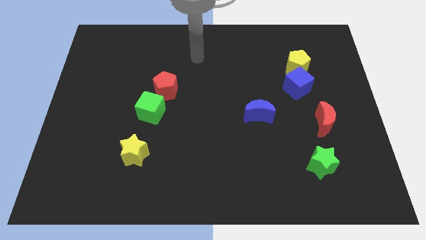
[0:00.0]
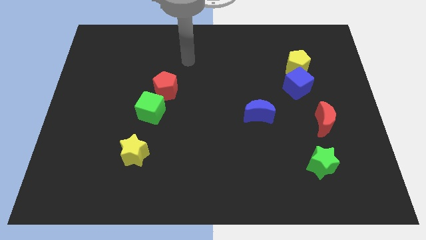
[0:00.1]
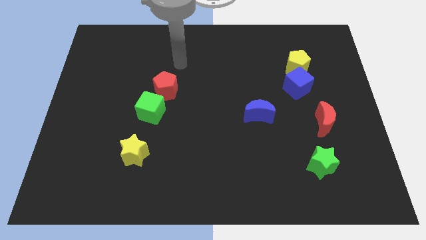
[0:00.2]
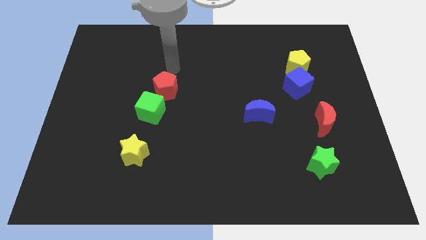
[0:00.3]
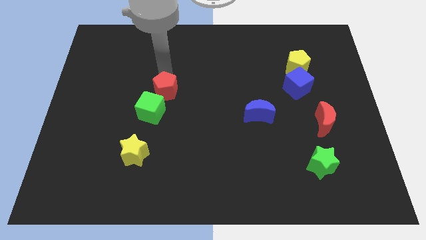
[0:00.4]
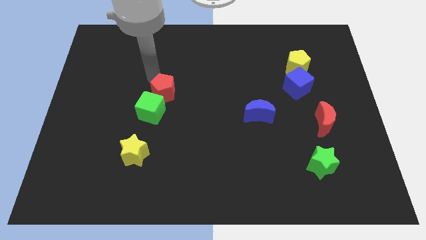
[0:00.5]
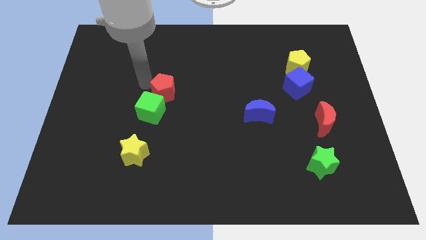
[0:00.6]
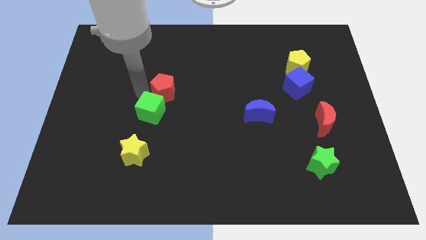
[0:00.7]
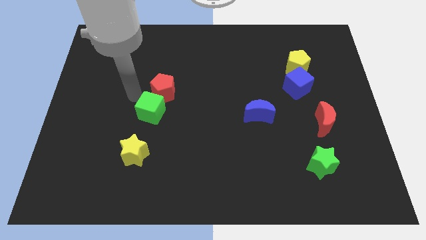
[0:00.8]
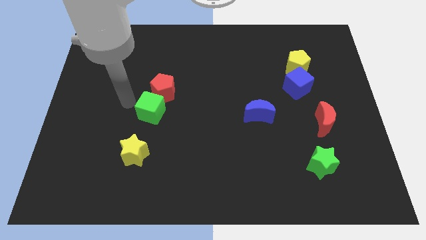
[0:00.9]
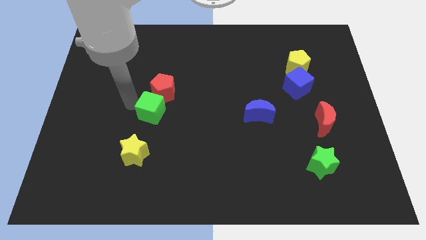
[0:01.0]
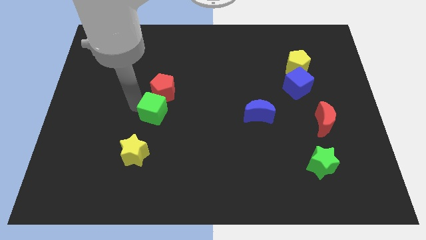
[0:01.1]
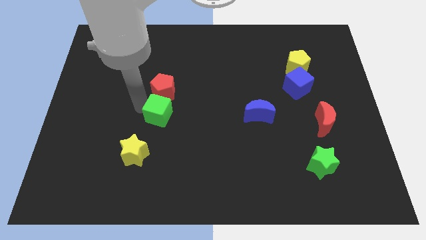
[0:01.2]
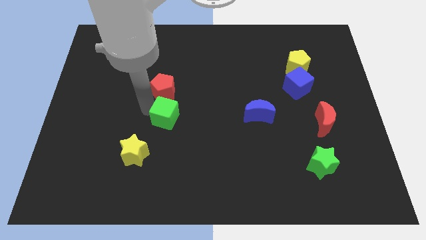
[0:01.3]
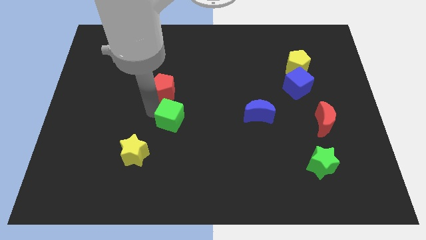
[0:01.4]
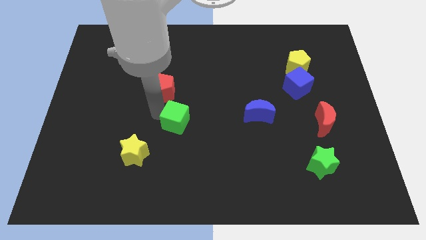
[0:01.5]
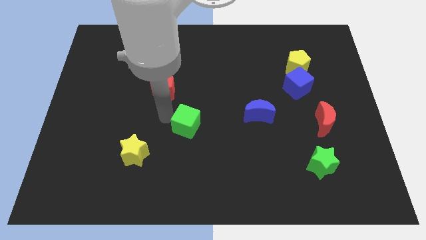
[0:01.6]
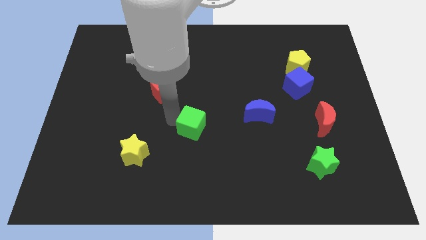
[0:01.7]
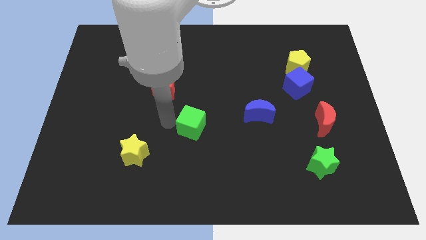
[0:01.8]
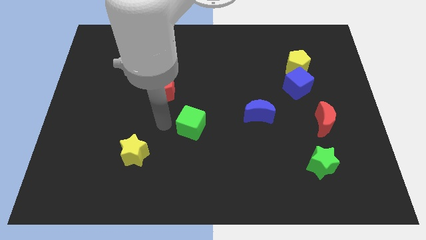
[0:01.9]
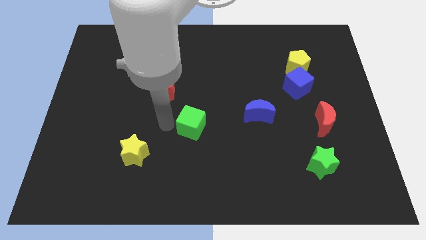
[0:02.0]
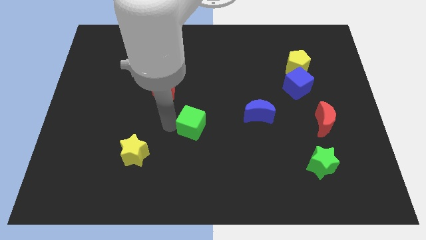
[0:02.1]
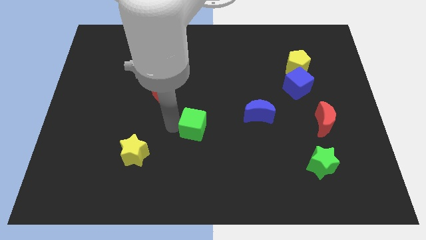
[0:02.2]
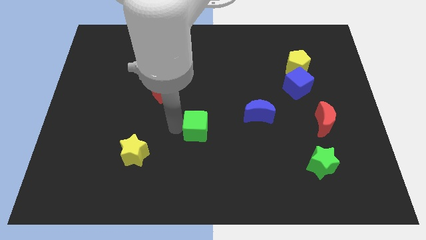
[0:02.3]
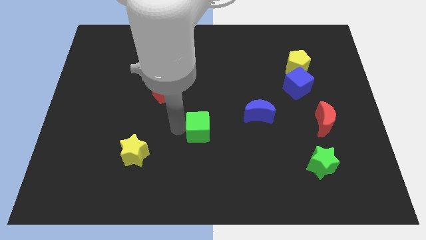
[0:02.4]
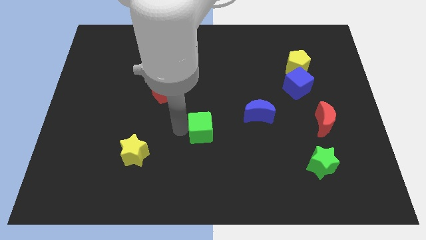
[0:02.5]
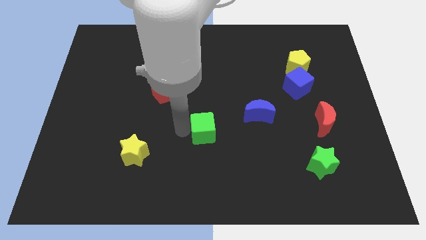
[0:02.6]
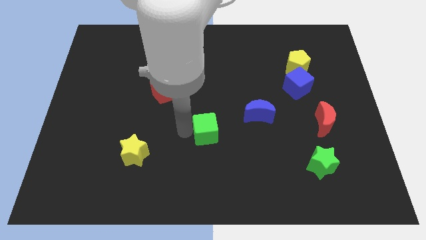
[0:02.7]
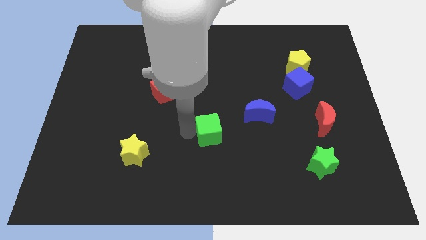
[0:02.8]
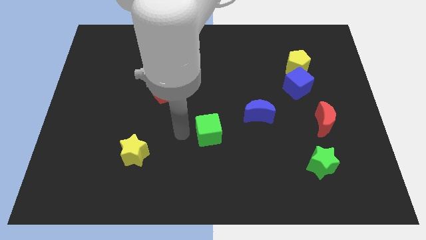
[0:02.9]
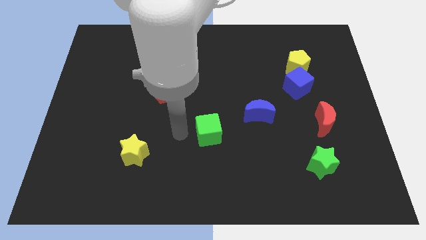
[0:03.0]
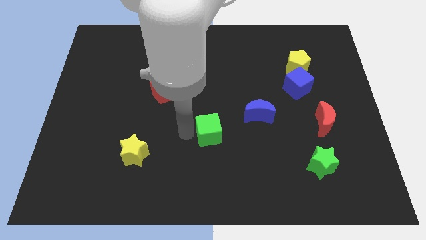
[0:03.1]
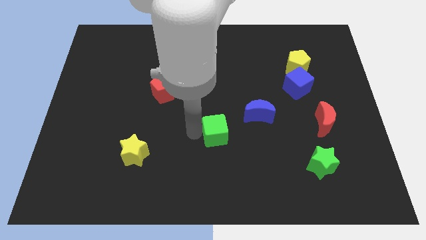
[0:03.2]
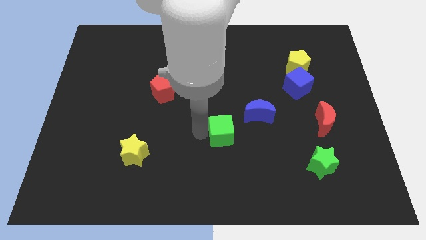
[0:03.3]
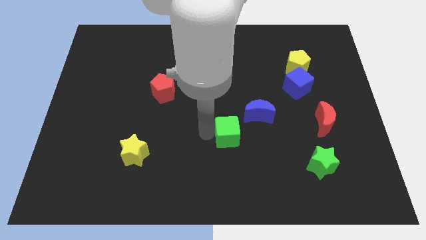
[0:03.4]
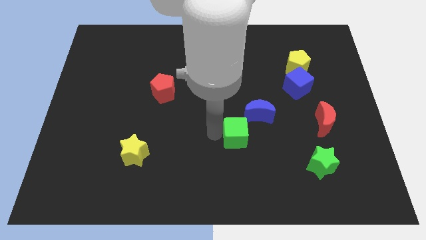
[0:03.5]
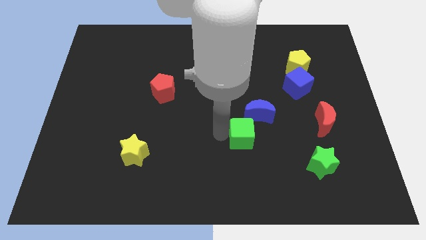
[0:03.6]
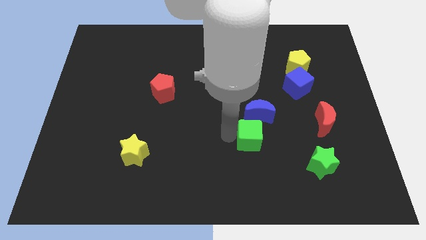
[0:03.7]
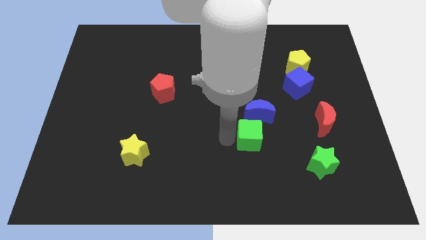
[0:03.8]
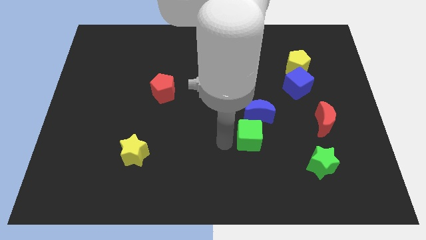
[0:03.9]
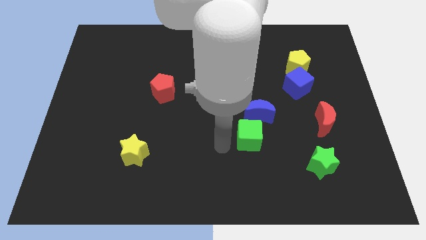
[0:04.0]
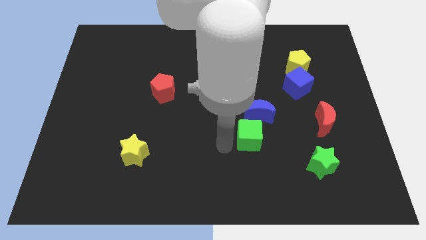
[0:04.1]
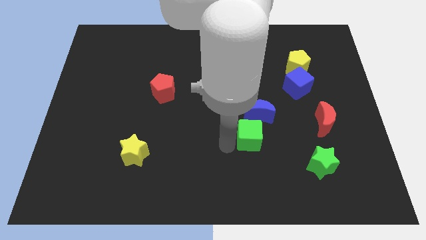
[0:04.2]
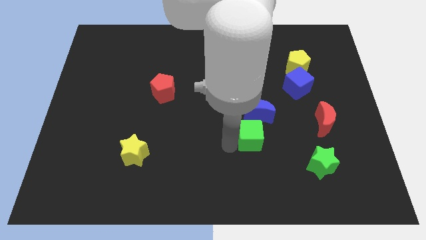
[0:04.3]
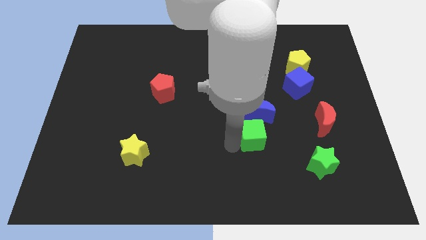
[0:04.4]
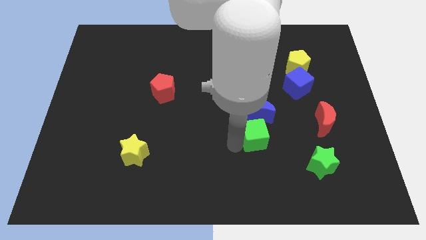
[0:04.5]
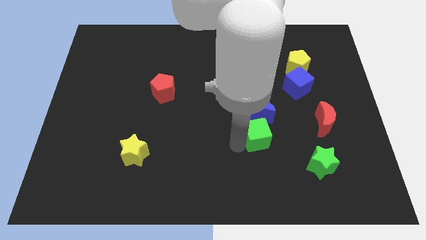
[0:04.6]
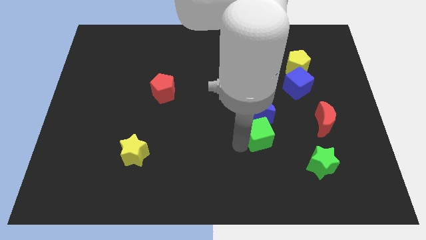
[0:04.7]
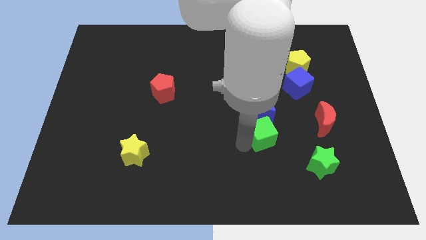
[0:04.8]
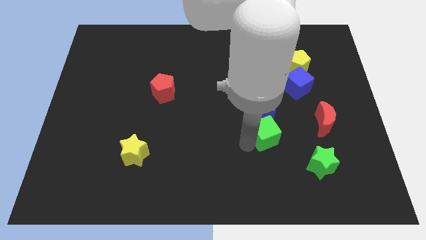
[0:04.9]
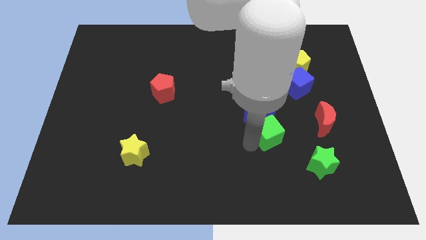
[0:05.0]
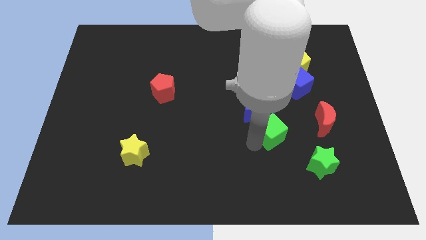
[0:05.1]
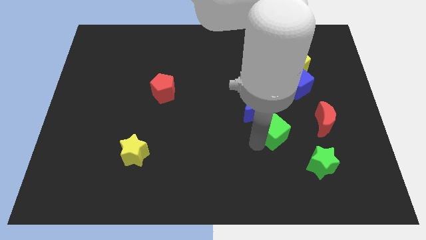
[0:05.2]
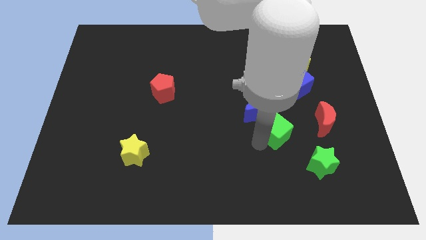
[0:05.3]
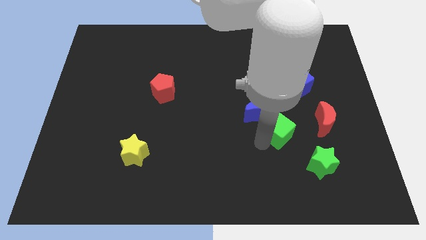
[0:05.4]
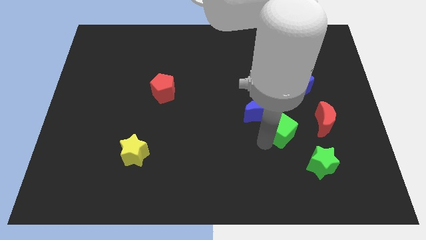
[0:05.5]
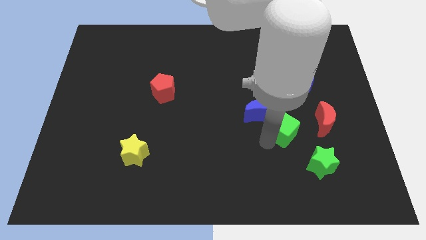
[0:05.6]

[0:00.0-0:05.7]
put the green cube right of the blue moon
